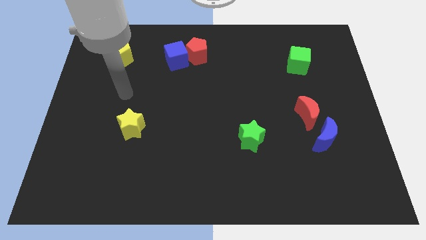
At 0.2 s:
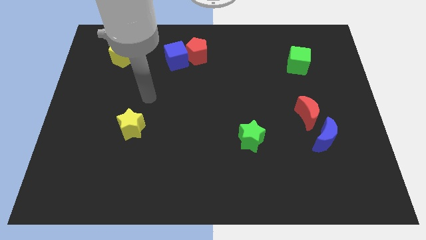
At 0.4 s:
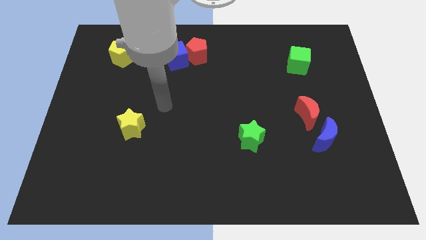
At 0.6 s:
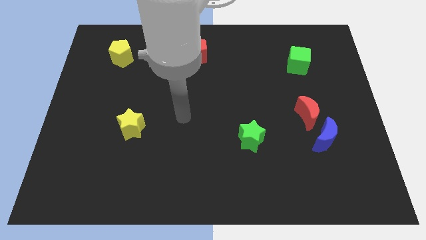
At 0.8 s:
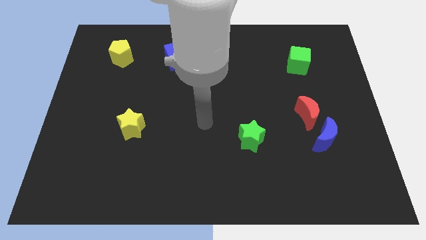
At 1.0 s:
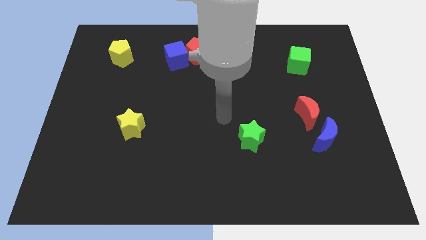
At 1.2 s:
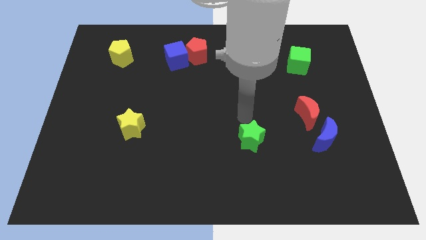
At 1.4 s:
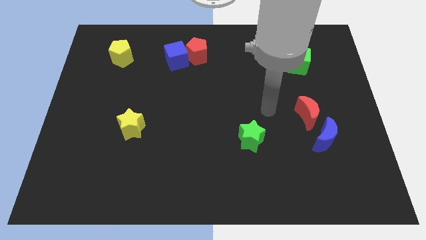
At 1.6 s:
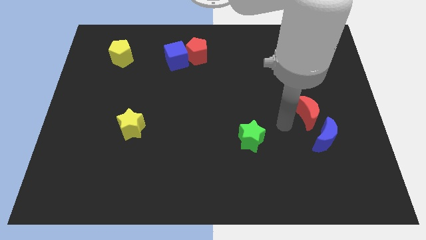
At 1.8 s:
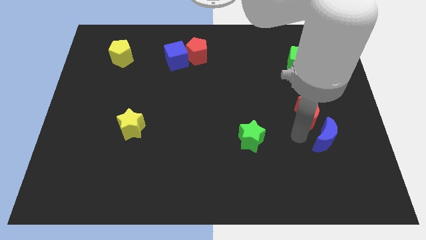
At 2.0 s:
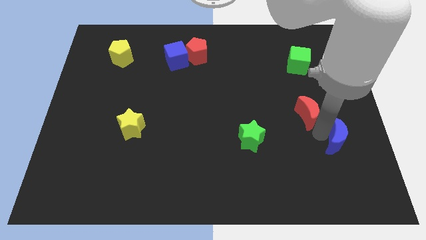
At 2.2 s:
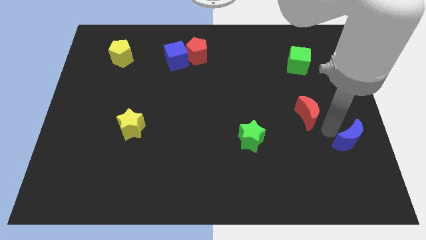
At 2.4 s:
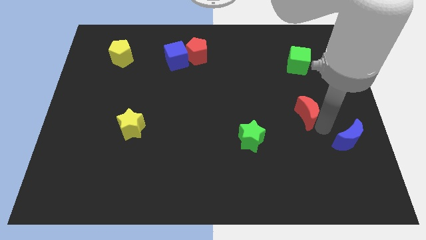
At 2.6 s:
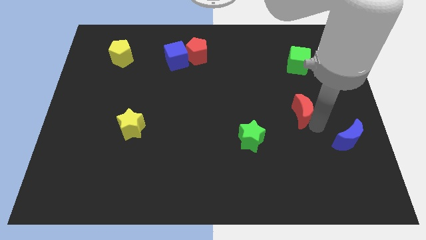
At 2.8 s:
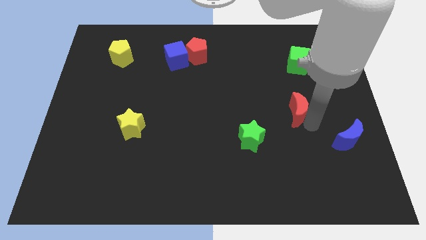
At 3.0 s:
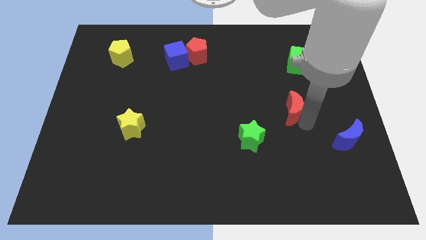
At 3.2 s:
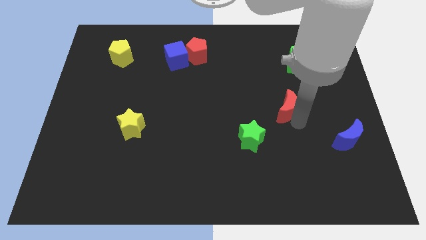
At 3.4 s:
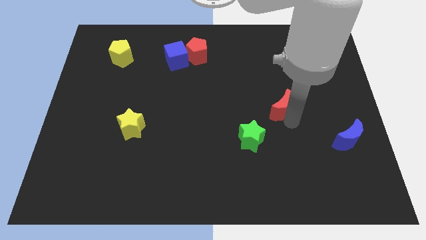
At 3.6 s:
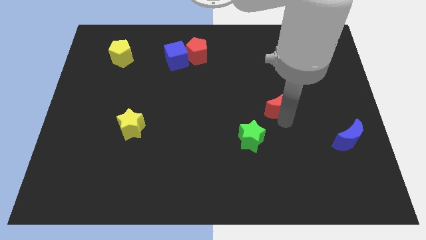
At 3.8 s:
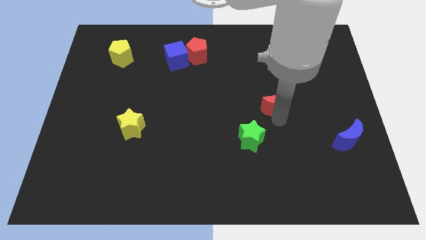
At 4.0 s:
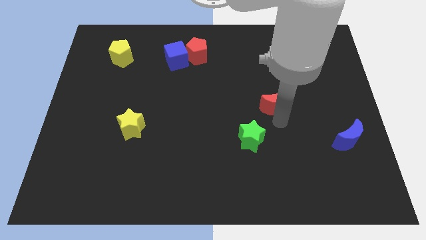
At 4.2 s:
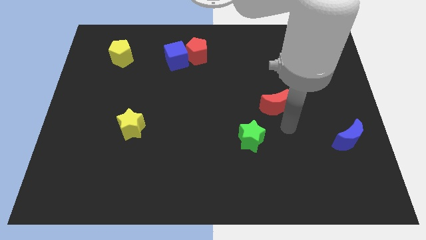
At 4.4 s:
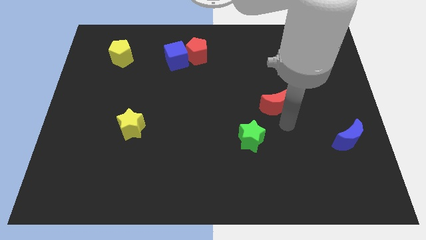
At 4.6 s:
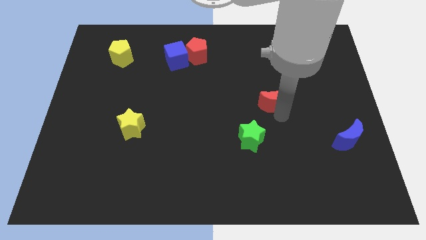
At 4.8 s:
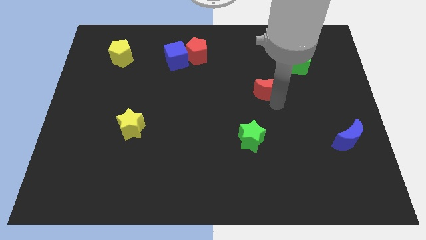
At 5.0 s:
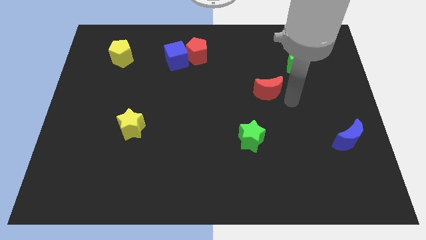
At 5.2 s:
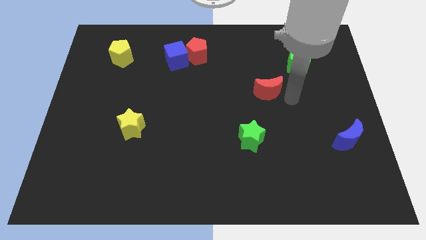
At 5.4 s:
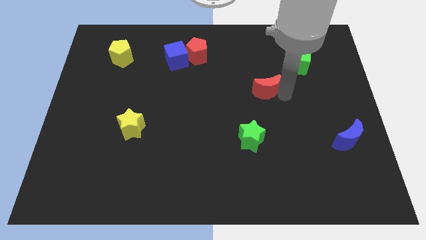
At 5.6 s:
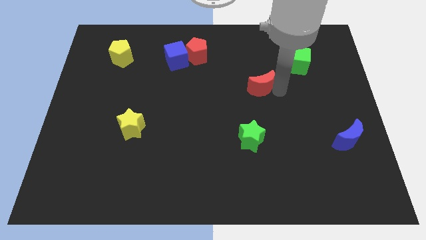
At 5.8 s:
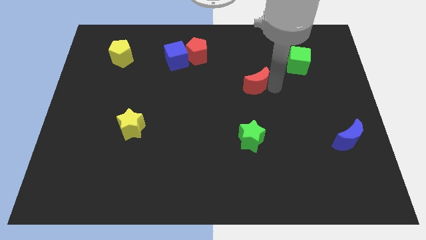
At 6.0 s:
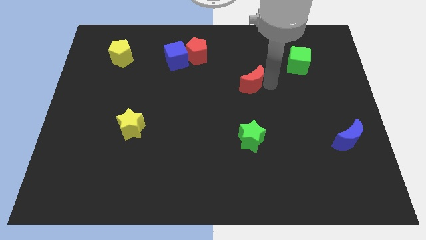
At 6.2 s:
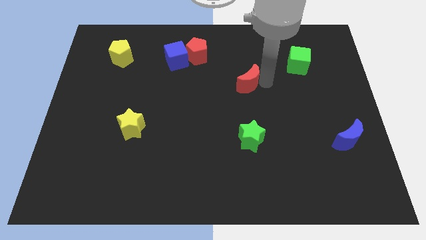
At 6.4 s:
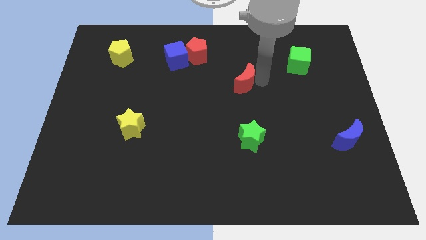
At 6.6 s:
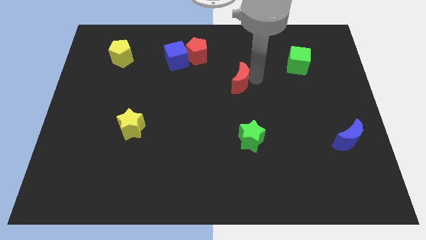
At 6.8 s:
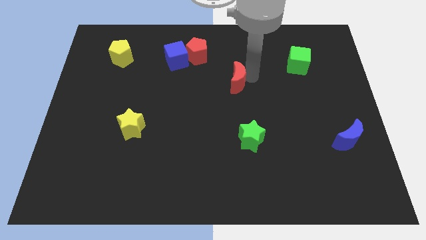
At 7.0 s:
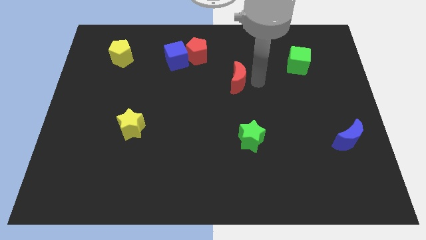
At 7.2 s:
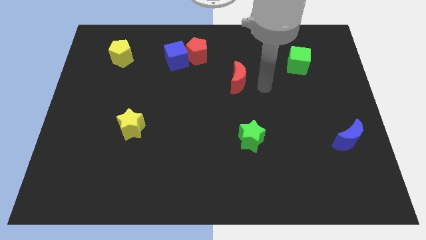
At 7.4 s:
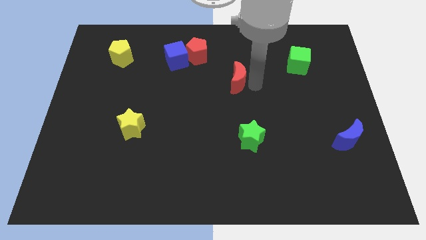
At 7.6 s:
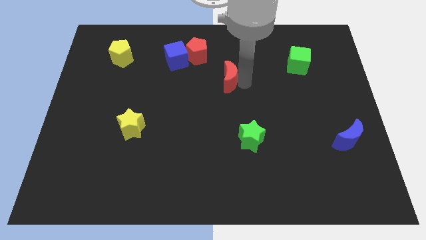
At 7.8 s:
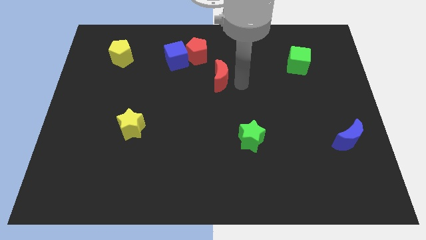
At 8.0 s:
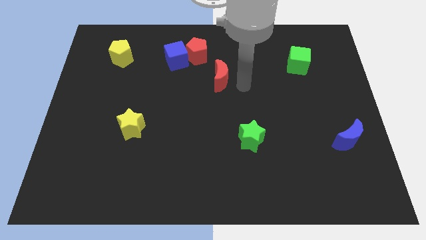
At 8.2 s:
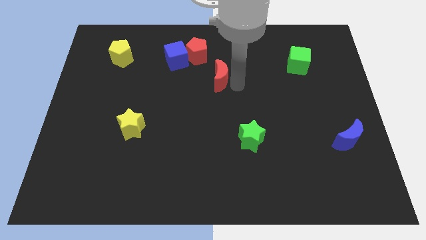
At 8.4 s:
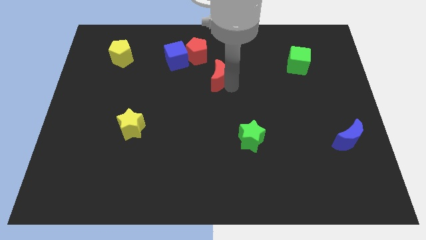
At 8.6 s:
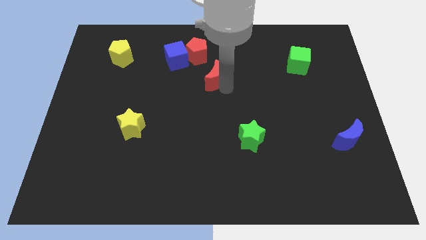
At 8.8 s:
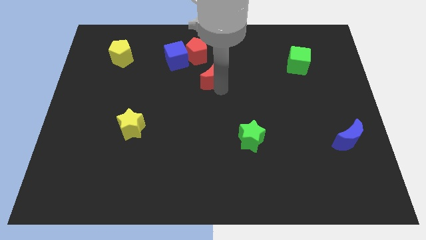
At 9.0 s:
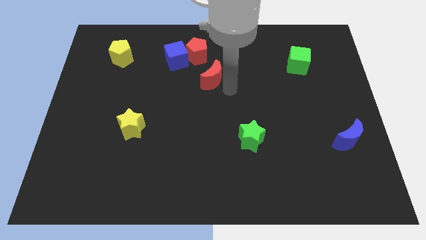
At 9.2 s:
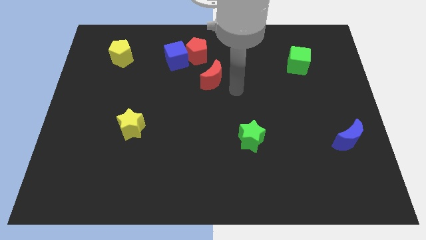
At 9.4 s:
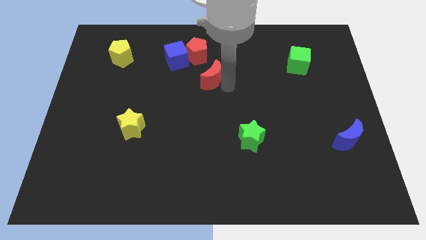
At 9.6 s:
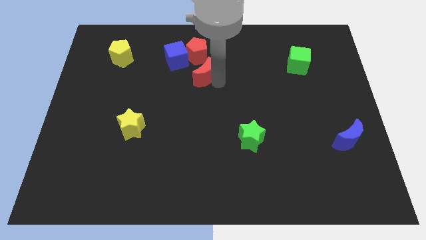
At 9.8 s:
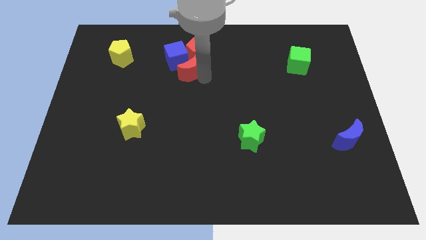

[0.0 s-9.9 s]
move the red moon to the blue cube

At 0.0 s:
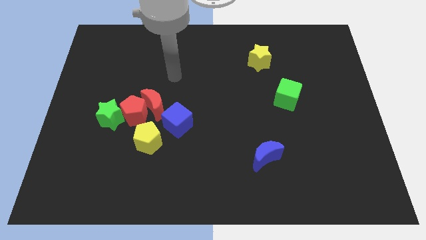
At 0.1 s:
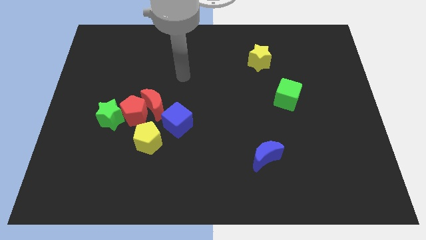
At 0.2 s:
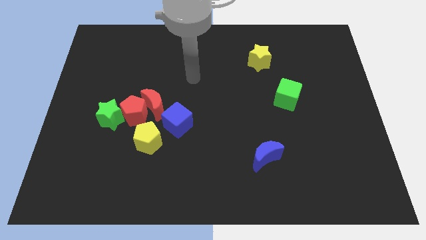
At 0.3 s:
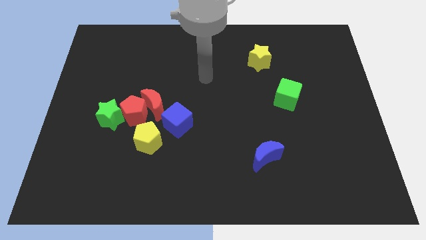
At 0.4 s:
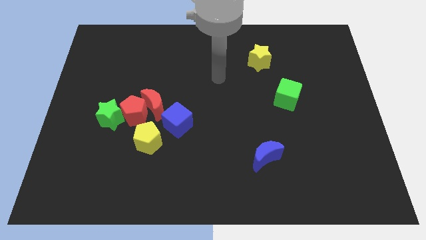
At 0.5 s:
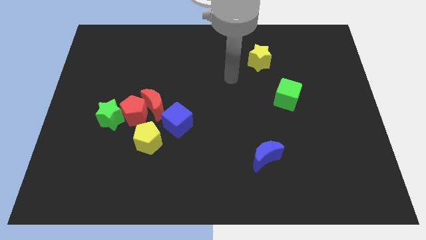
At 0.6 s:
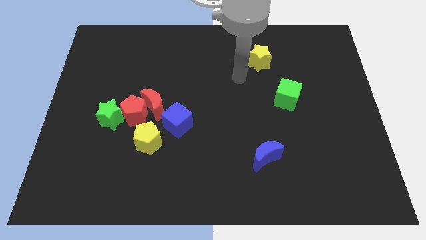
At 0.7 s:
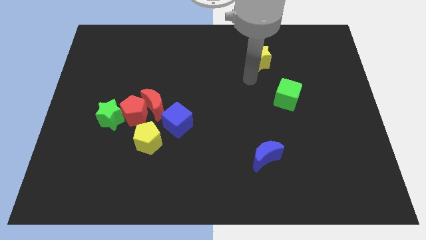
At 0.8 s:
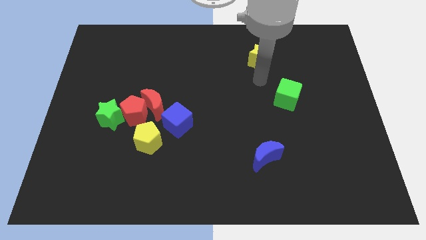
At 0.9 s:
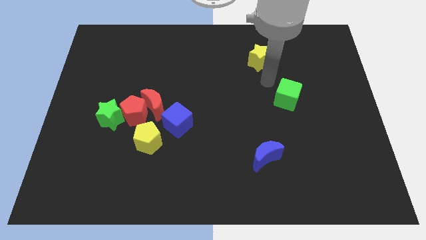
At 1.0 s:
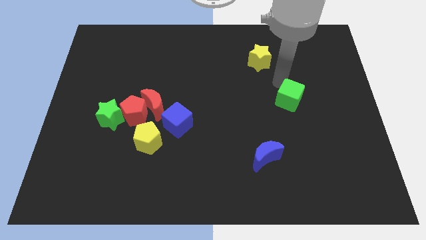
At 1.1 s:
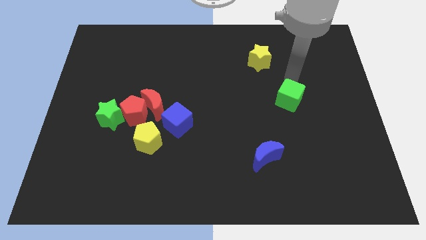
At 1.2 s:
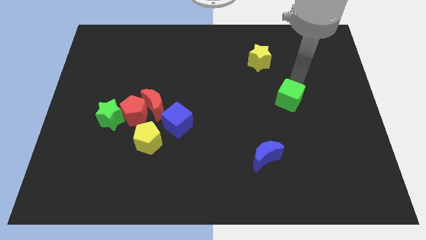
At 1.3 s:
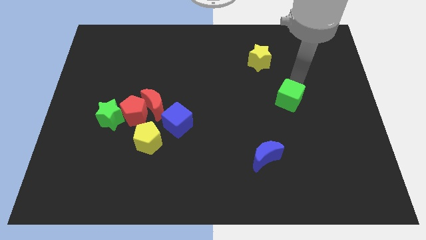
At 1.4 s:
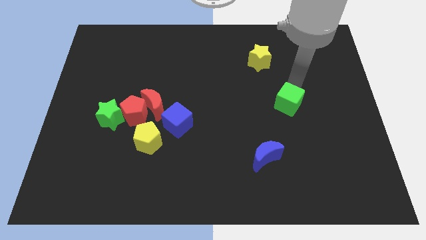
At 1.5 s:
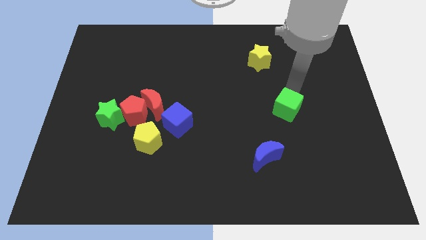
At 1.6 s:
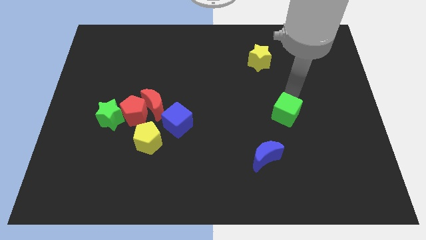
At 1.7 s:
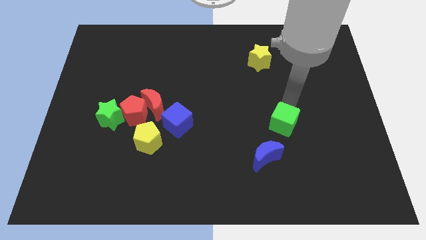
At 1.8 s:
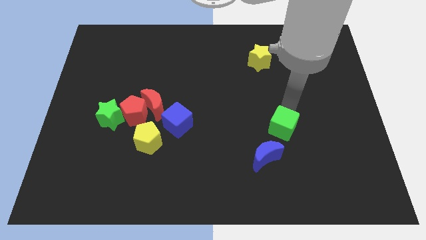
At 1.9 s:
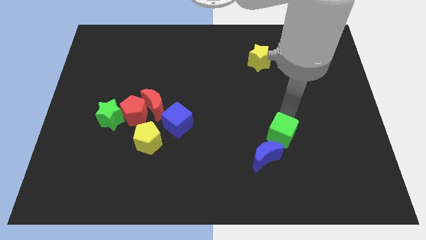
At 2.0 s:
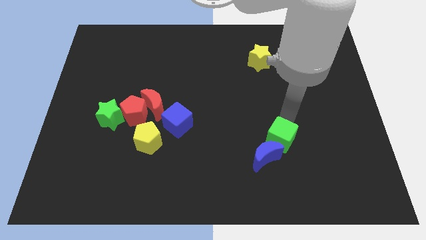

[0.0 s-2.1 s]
put the green cube to the blue moon

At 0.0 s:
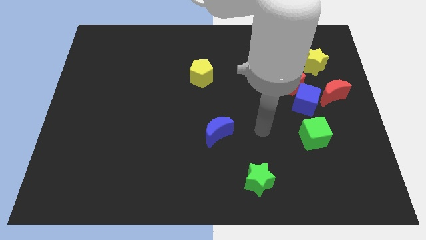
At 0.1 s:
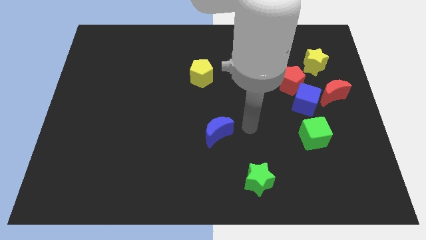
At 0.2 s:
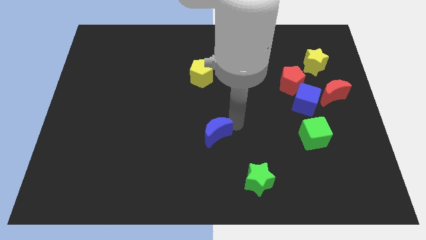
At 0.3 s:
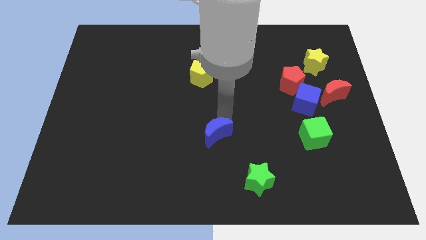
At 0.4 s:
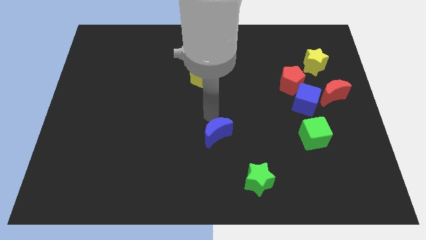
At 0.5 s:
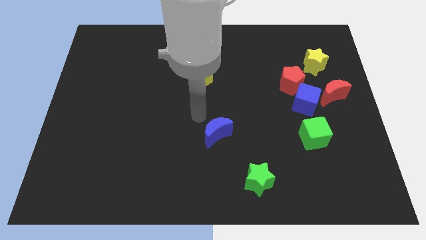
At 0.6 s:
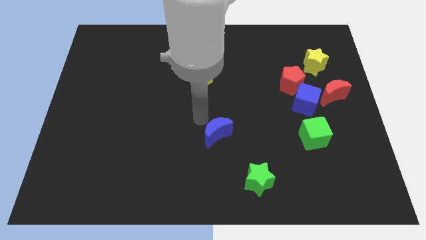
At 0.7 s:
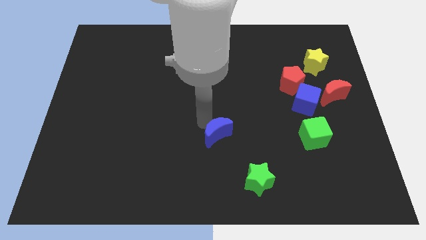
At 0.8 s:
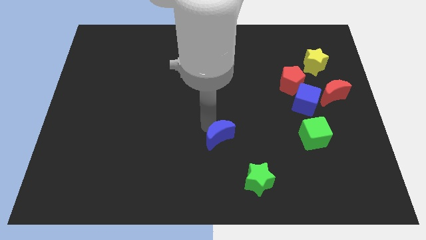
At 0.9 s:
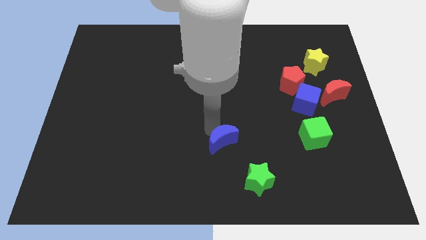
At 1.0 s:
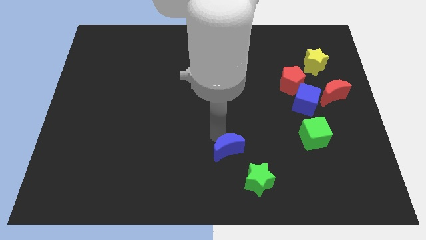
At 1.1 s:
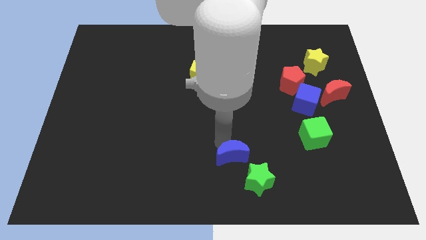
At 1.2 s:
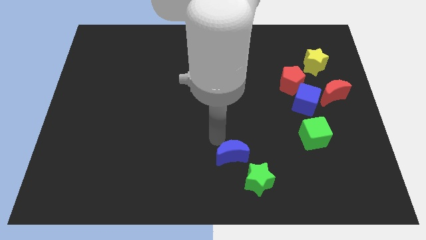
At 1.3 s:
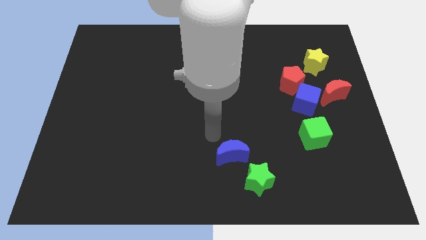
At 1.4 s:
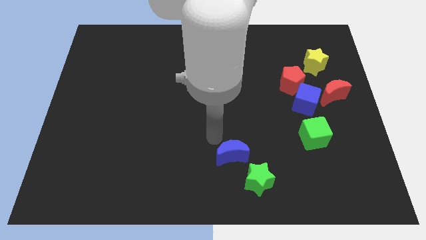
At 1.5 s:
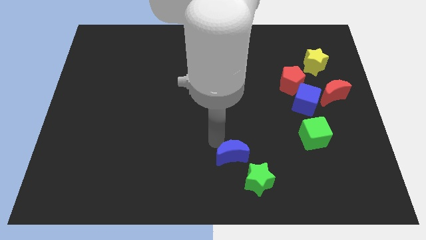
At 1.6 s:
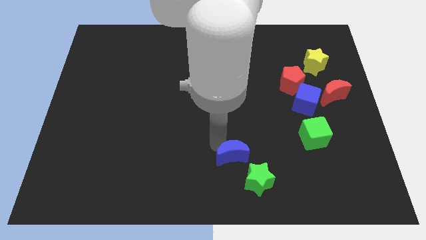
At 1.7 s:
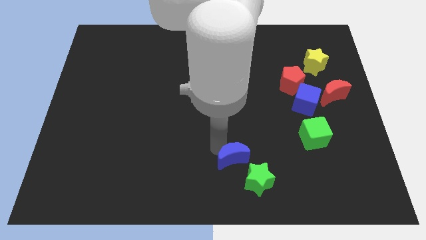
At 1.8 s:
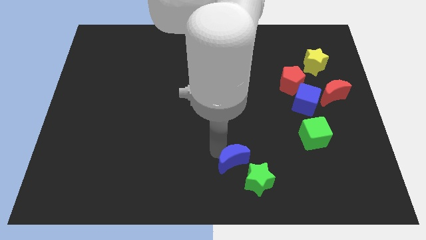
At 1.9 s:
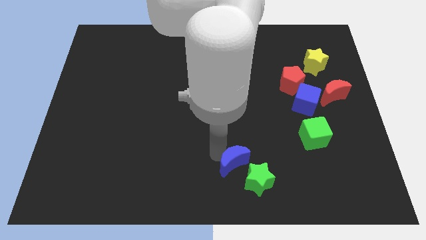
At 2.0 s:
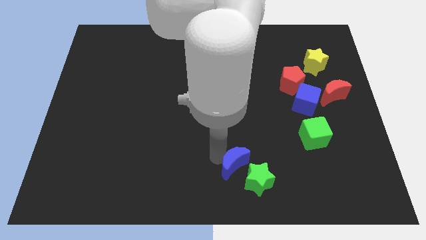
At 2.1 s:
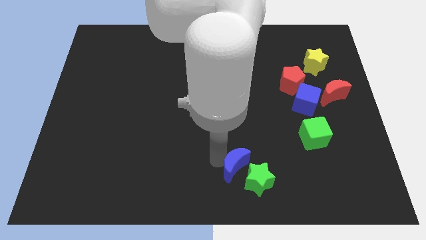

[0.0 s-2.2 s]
push the blue moon next to the green star
